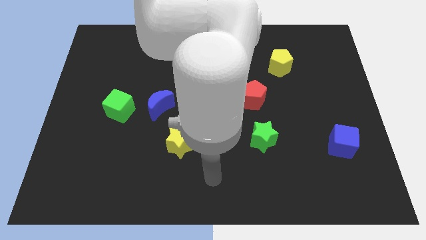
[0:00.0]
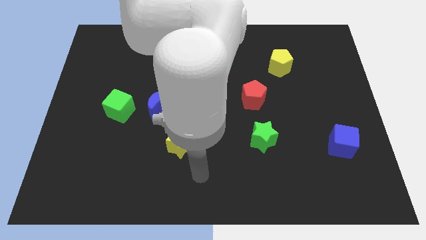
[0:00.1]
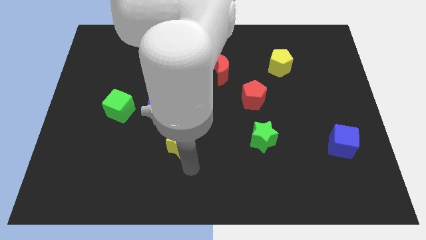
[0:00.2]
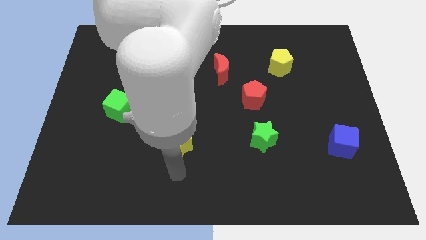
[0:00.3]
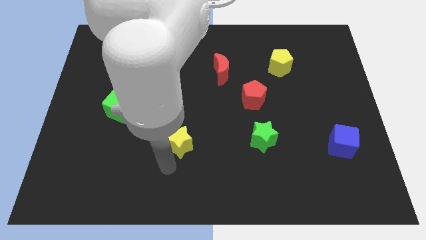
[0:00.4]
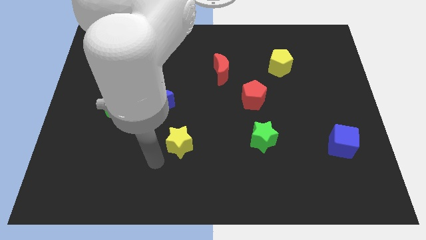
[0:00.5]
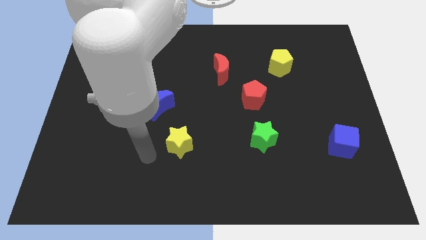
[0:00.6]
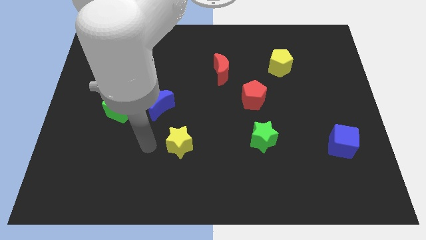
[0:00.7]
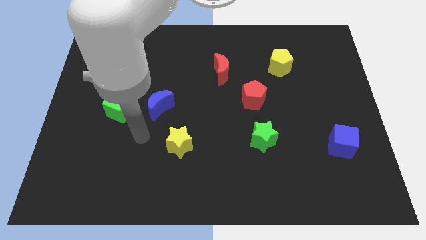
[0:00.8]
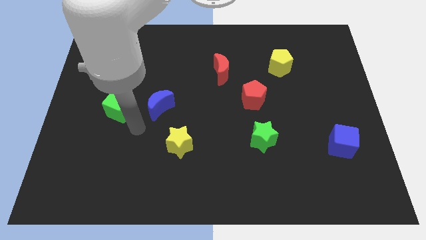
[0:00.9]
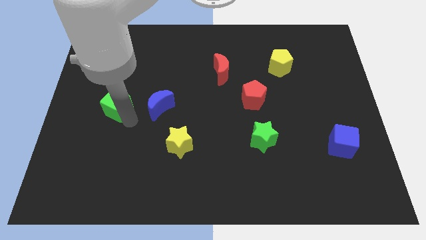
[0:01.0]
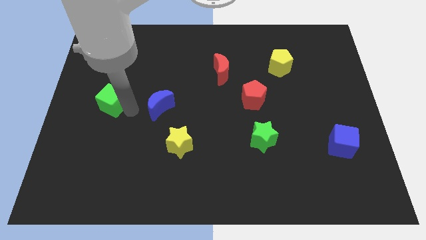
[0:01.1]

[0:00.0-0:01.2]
pull the blue moon apart from the green cube

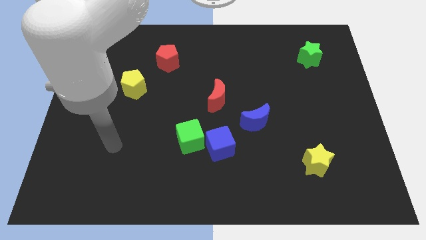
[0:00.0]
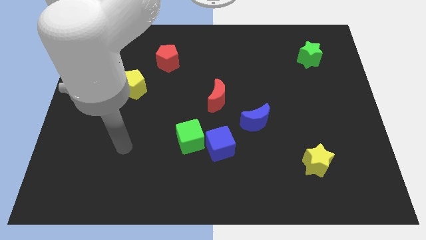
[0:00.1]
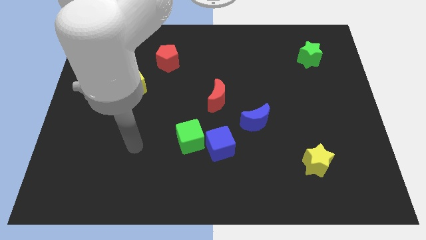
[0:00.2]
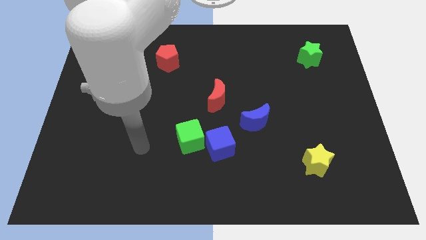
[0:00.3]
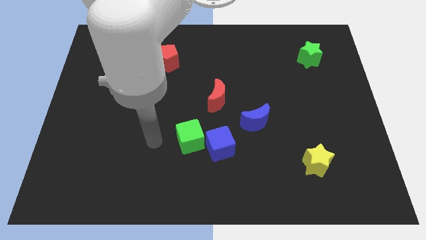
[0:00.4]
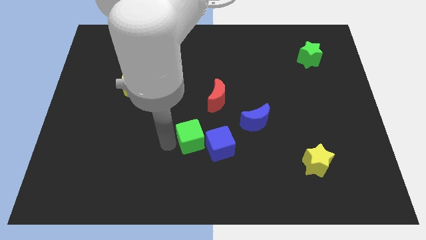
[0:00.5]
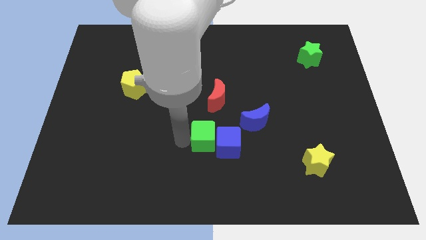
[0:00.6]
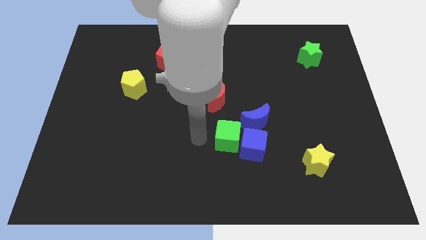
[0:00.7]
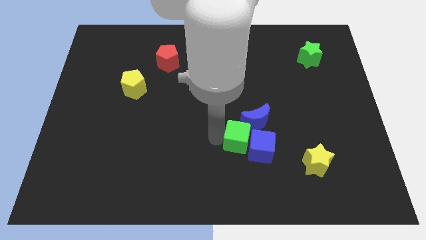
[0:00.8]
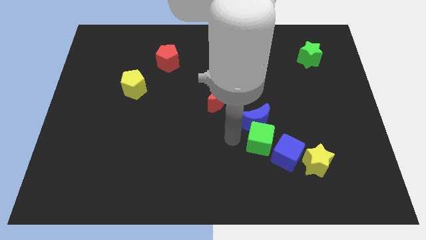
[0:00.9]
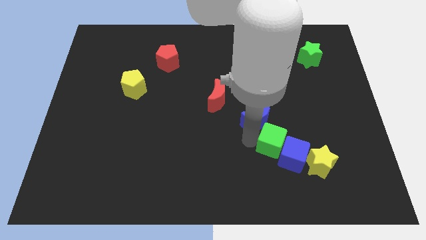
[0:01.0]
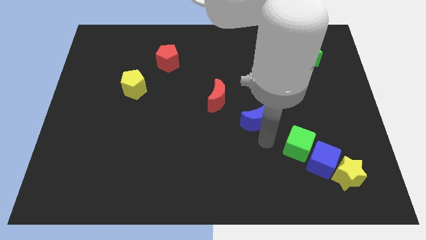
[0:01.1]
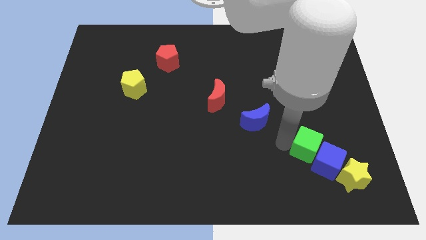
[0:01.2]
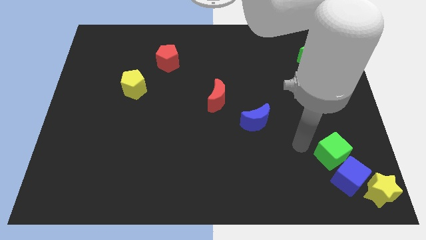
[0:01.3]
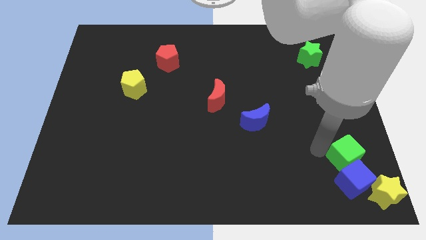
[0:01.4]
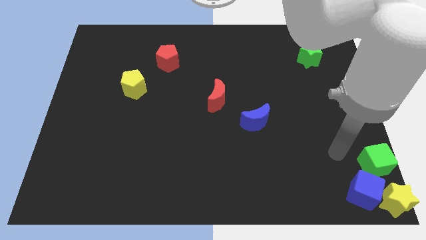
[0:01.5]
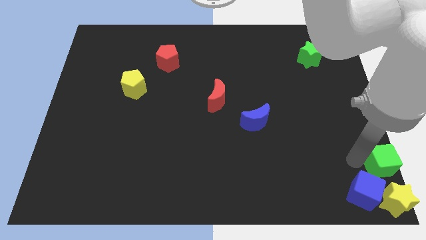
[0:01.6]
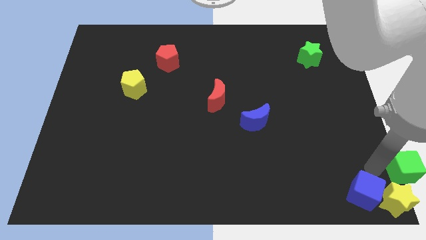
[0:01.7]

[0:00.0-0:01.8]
move the blue cube away from the green cube

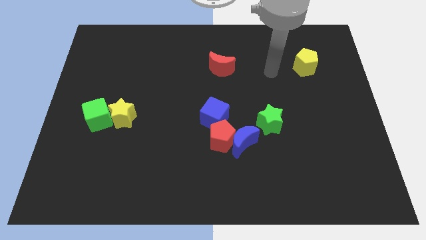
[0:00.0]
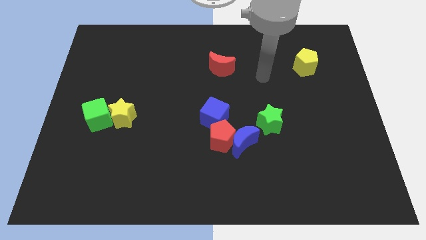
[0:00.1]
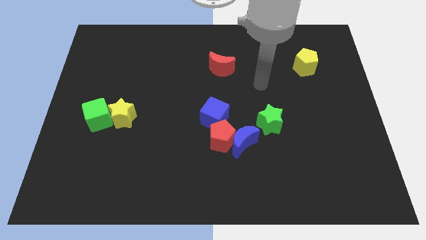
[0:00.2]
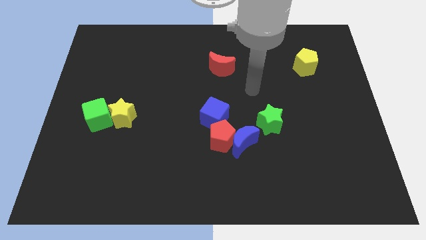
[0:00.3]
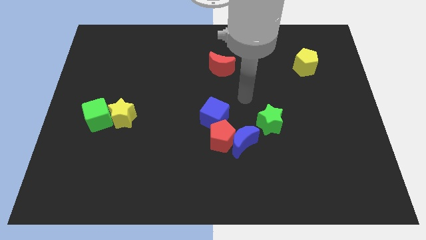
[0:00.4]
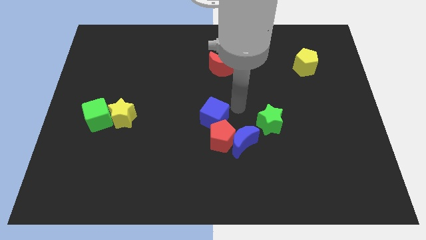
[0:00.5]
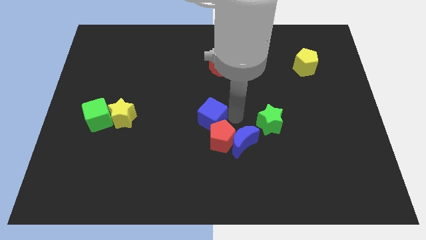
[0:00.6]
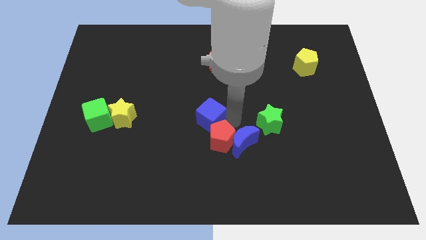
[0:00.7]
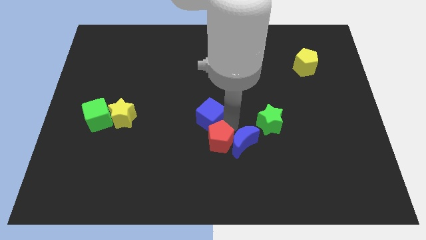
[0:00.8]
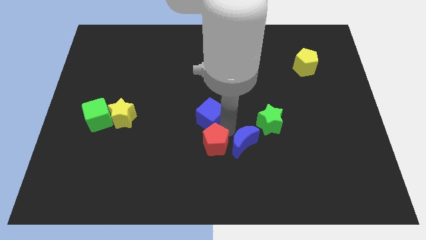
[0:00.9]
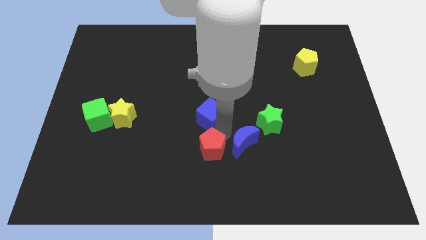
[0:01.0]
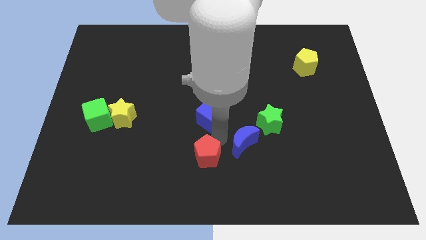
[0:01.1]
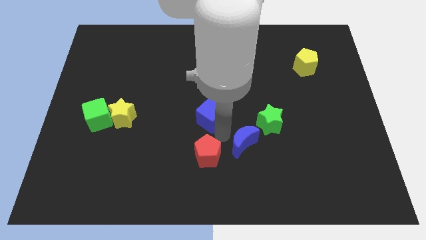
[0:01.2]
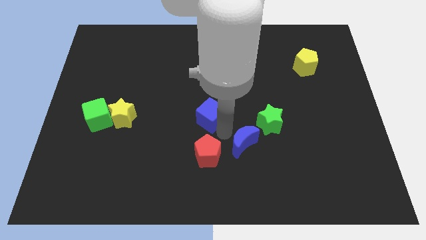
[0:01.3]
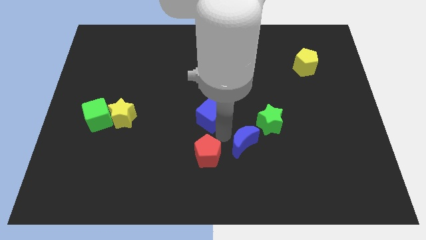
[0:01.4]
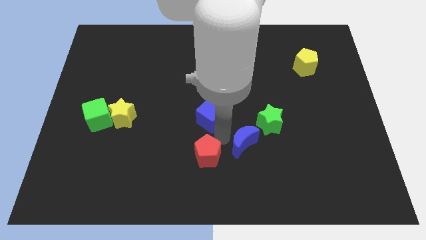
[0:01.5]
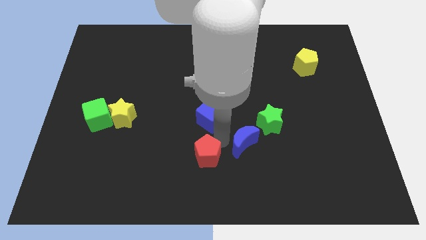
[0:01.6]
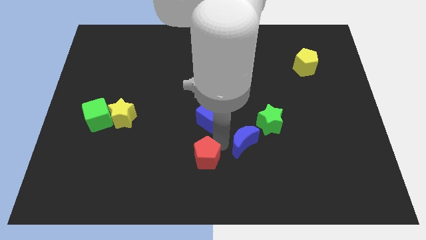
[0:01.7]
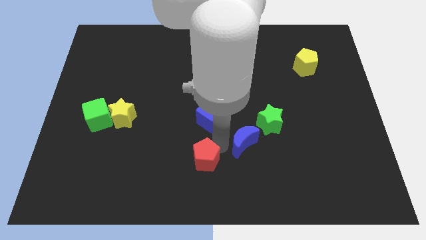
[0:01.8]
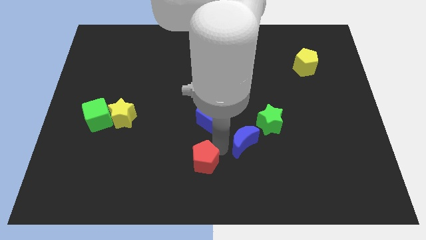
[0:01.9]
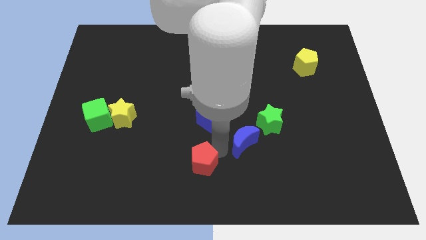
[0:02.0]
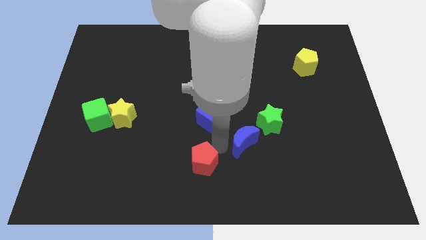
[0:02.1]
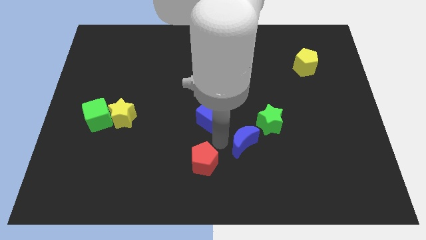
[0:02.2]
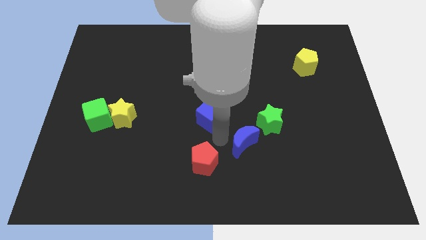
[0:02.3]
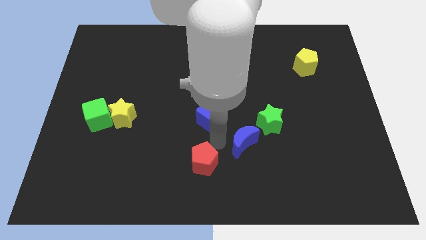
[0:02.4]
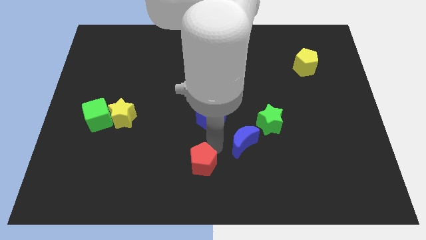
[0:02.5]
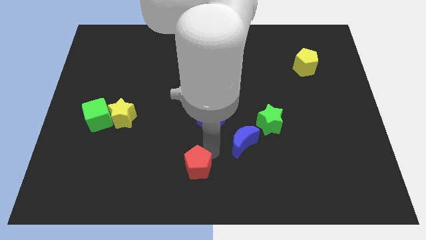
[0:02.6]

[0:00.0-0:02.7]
separate the red pentagon from the blue moon and blue cube

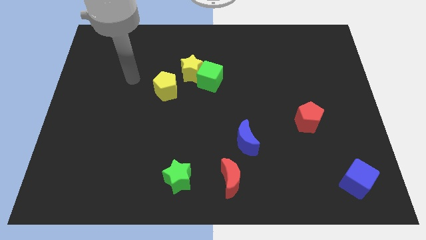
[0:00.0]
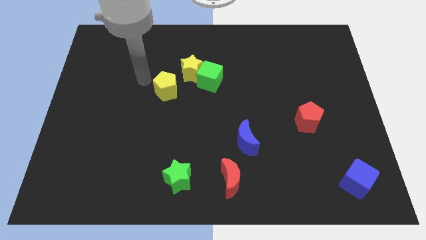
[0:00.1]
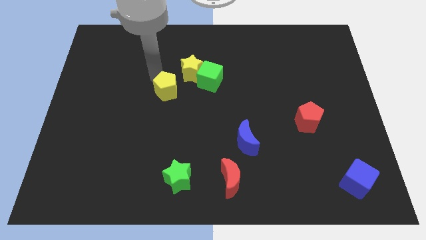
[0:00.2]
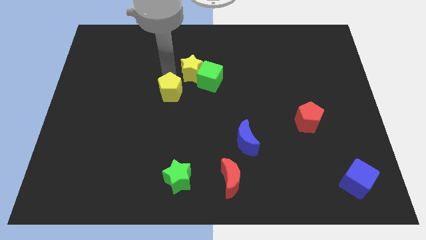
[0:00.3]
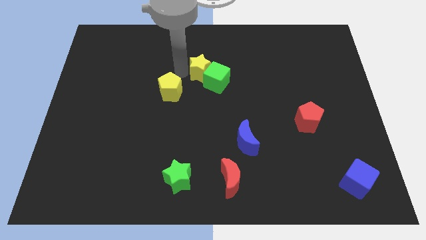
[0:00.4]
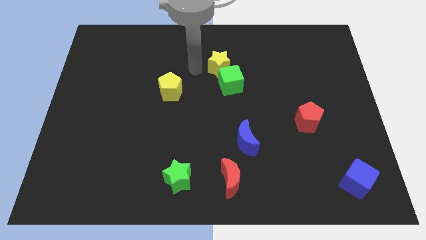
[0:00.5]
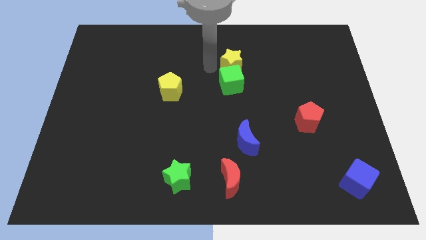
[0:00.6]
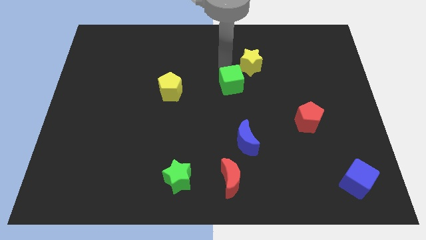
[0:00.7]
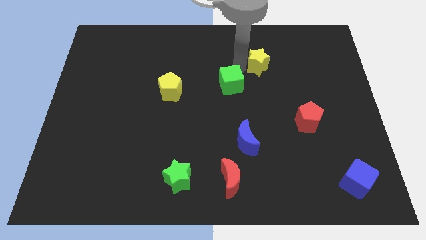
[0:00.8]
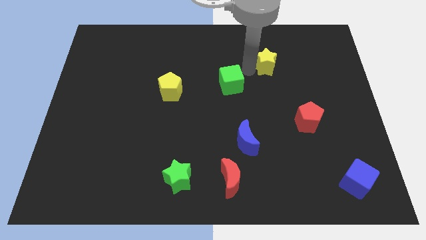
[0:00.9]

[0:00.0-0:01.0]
move the green cube away from the yellow star

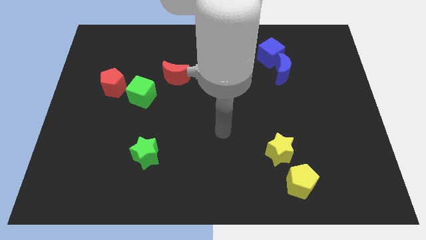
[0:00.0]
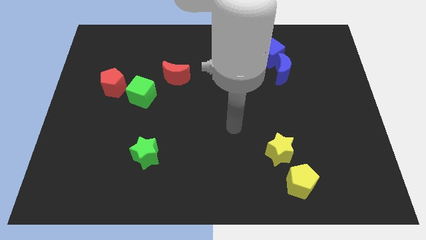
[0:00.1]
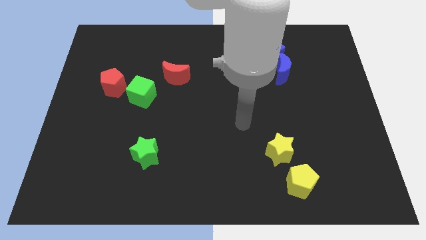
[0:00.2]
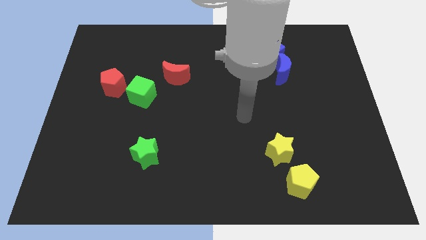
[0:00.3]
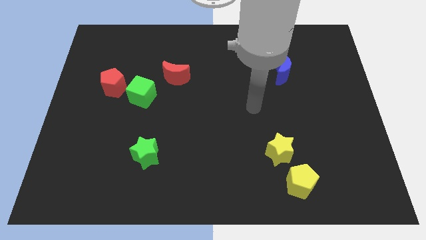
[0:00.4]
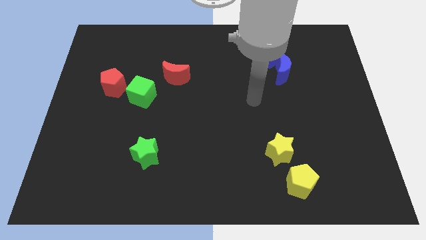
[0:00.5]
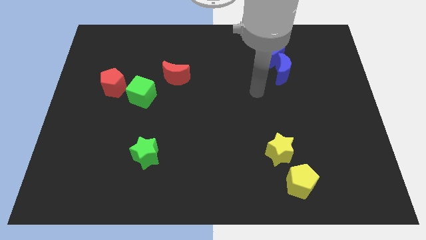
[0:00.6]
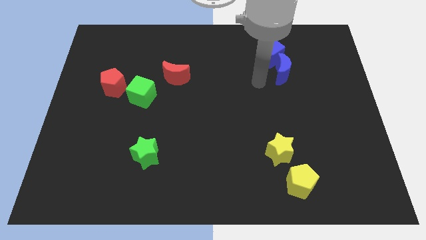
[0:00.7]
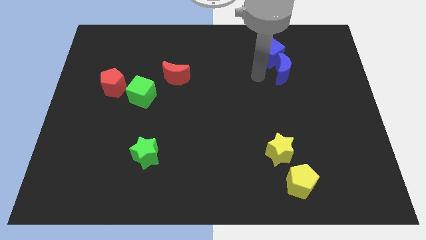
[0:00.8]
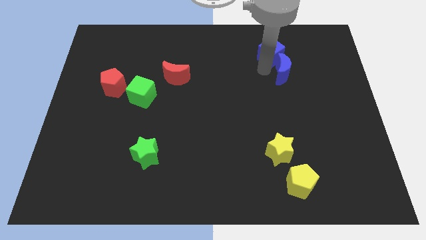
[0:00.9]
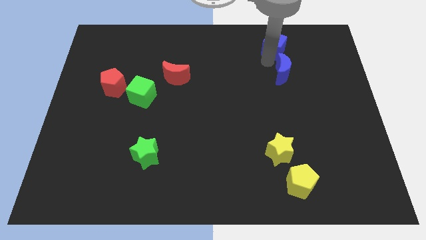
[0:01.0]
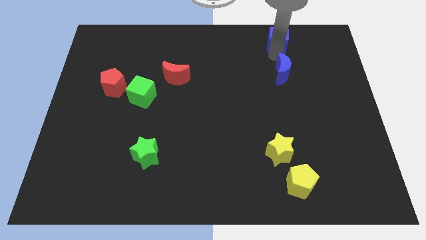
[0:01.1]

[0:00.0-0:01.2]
pull the blue moon apart from the blue cube

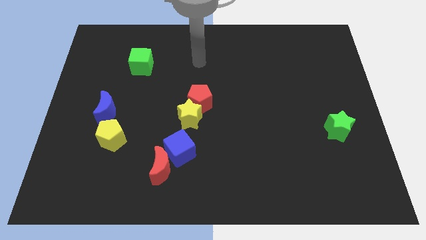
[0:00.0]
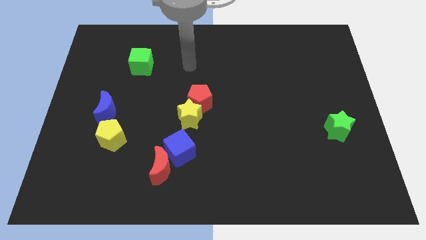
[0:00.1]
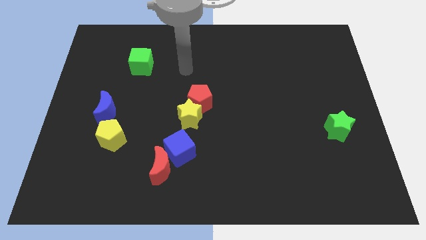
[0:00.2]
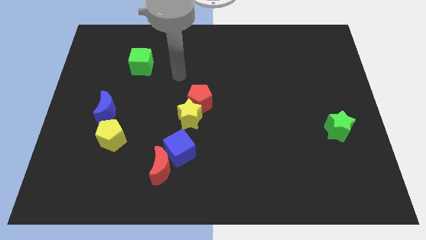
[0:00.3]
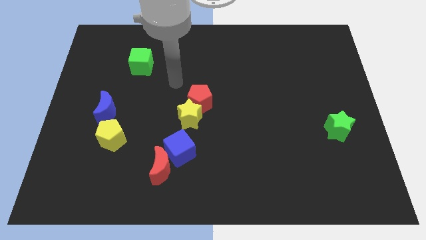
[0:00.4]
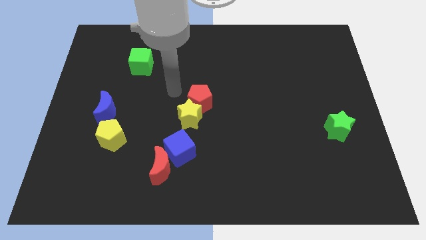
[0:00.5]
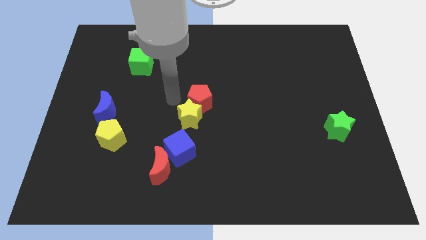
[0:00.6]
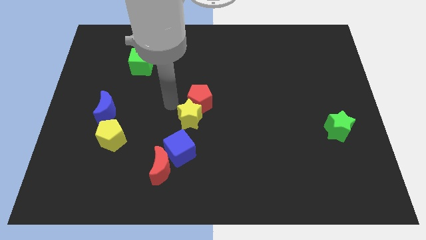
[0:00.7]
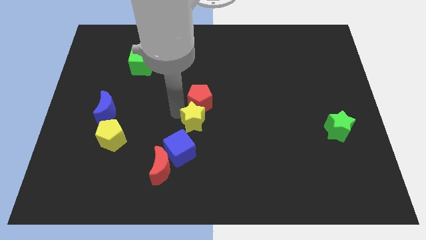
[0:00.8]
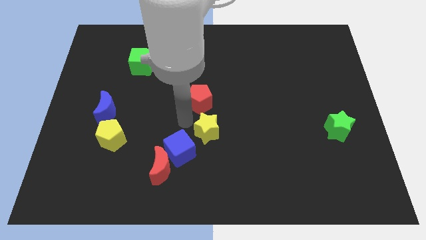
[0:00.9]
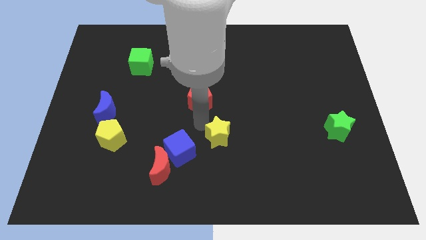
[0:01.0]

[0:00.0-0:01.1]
pull the red pentagon apart from the yellow star

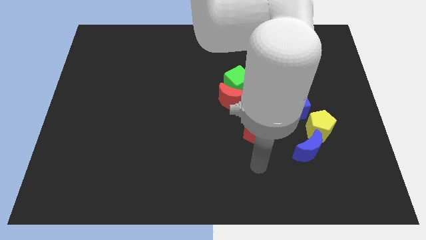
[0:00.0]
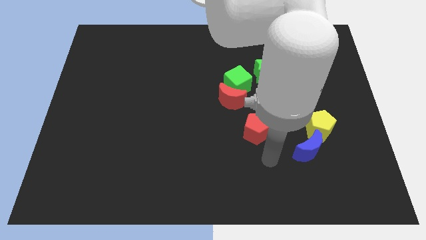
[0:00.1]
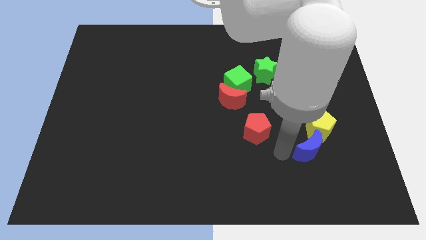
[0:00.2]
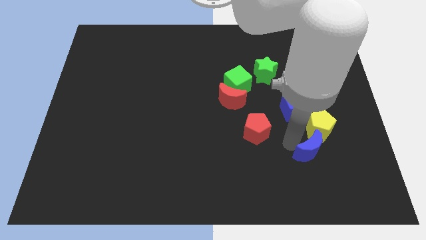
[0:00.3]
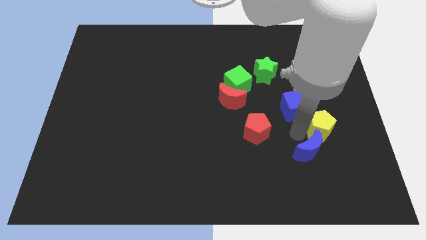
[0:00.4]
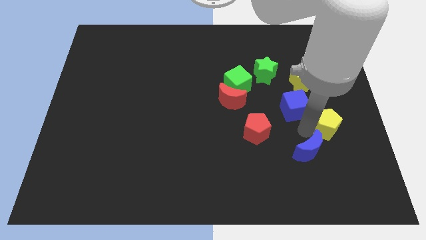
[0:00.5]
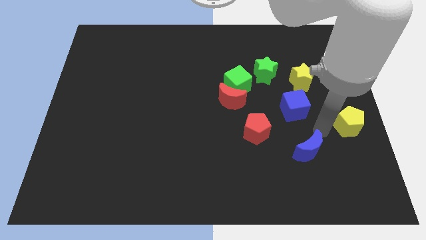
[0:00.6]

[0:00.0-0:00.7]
move the blue moon away from the yellow pentagon
